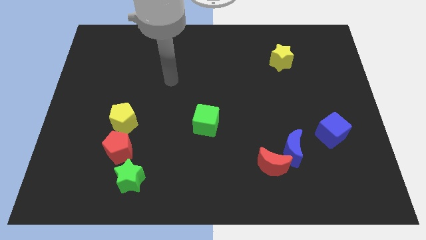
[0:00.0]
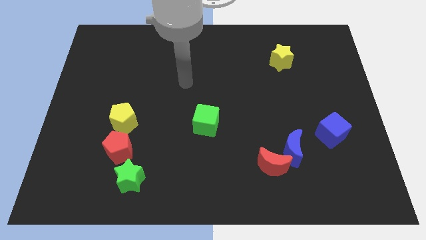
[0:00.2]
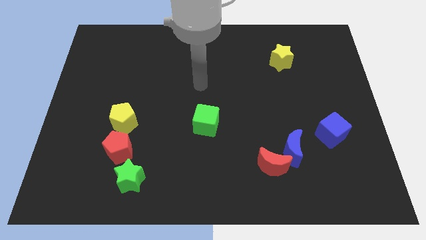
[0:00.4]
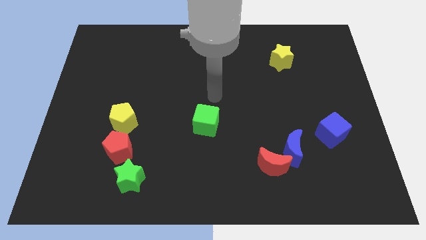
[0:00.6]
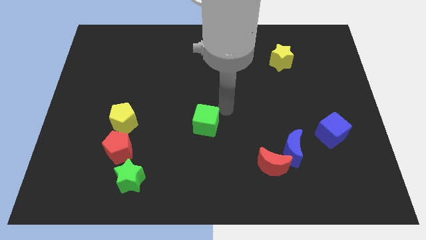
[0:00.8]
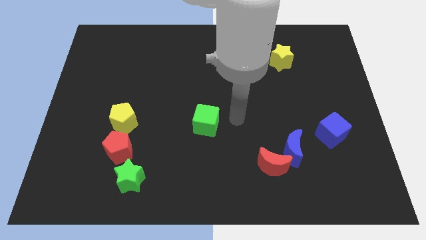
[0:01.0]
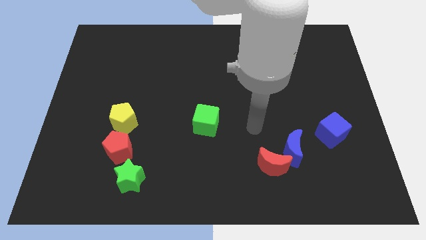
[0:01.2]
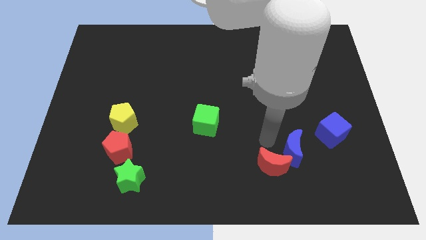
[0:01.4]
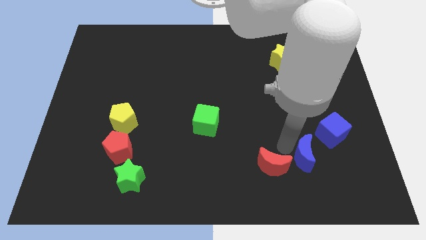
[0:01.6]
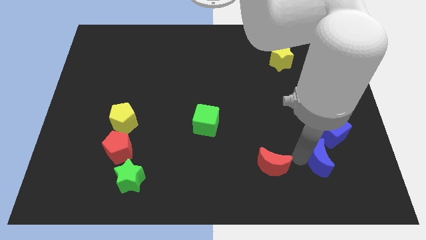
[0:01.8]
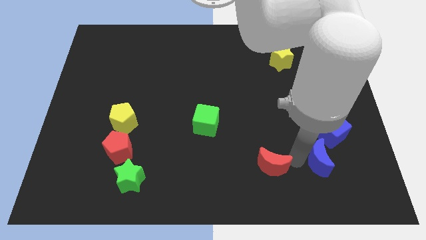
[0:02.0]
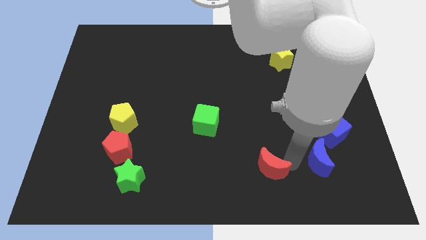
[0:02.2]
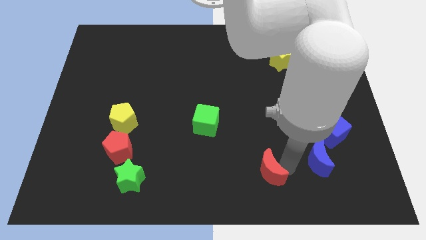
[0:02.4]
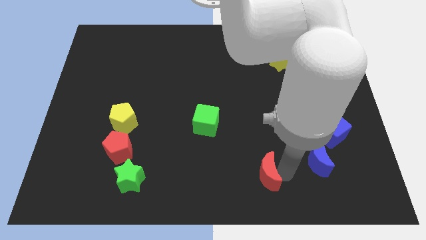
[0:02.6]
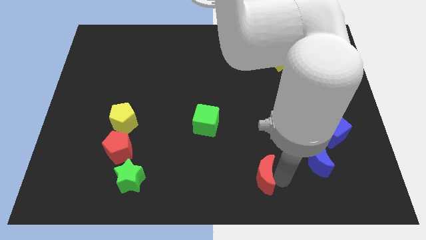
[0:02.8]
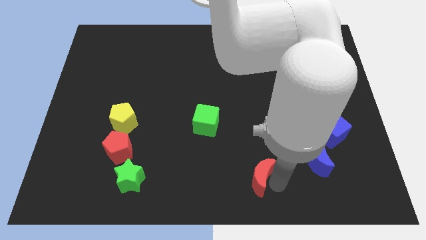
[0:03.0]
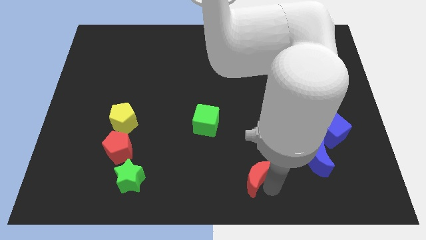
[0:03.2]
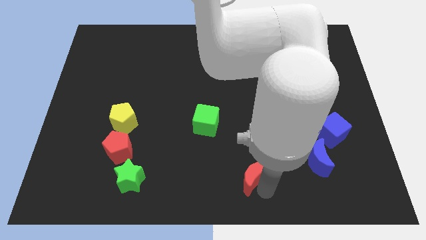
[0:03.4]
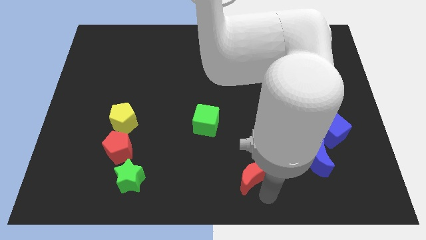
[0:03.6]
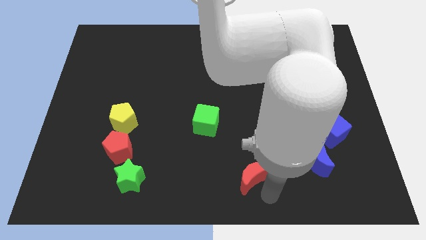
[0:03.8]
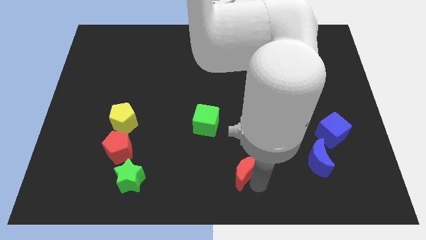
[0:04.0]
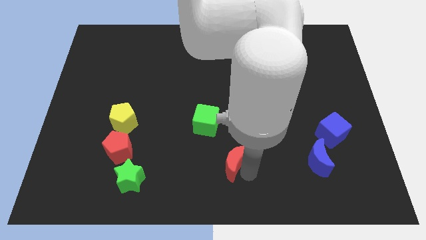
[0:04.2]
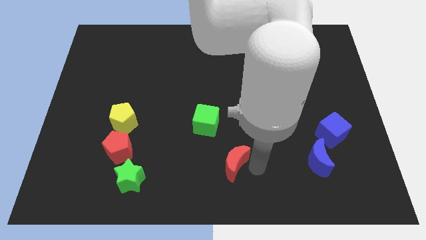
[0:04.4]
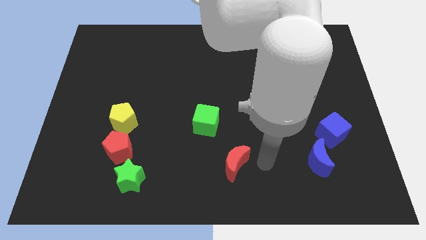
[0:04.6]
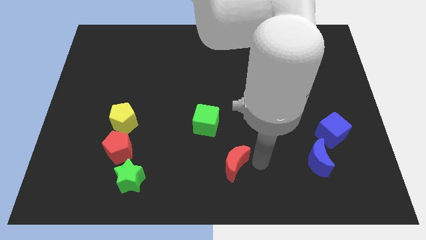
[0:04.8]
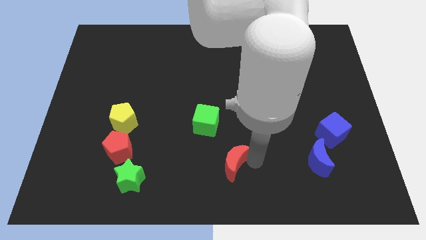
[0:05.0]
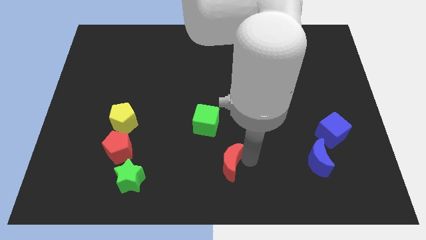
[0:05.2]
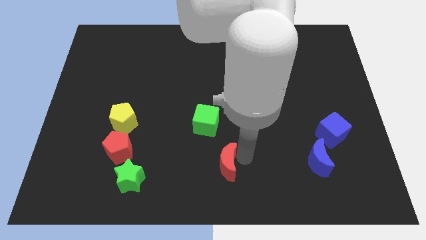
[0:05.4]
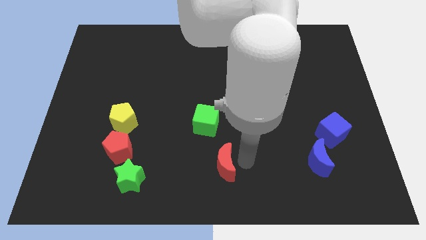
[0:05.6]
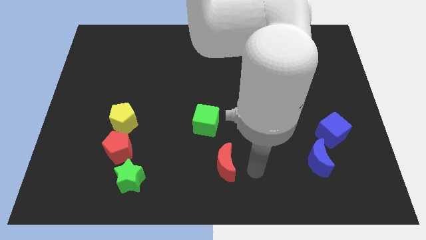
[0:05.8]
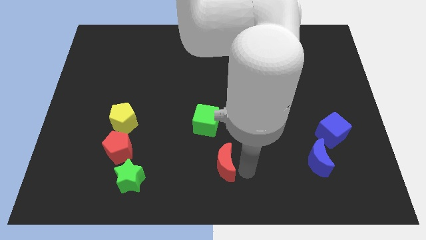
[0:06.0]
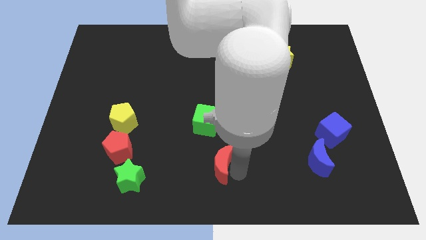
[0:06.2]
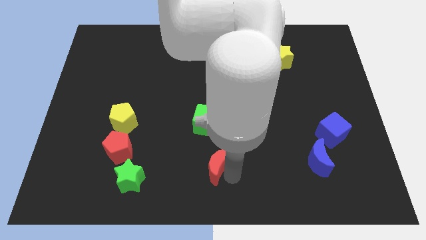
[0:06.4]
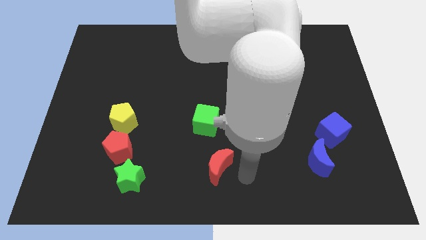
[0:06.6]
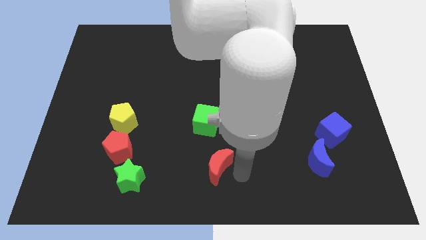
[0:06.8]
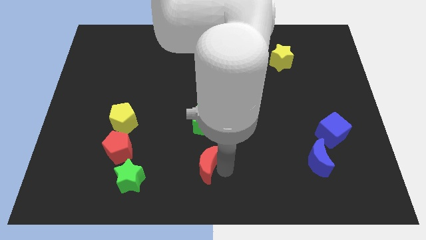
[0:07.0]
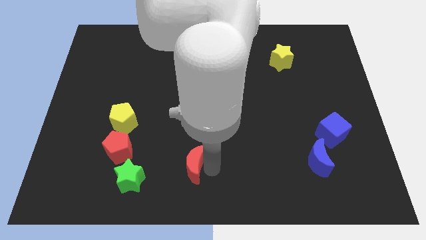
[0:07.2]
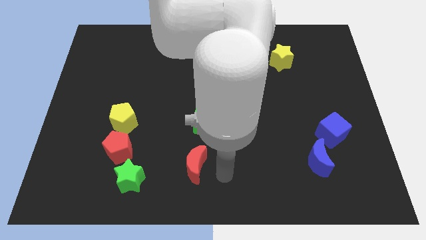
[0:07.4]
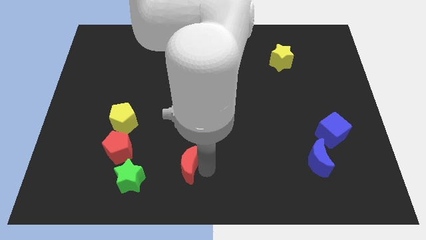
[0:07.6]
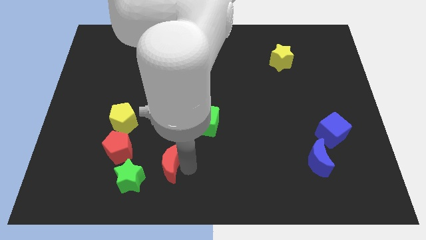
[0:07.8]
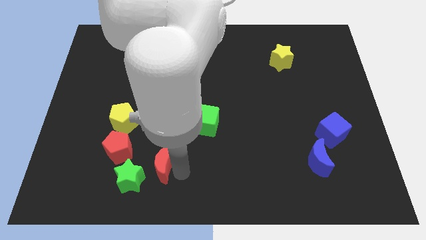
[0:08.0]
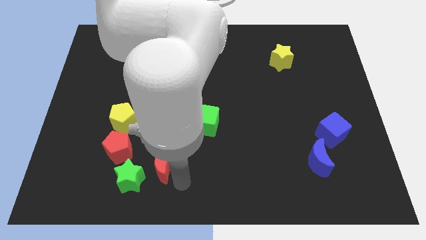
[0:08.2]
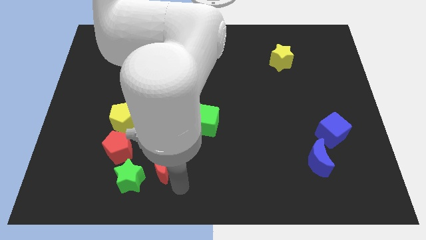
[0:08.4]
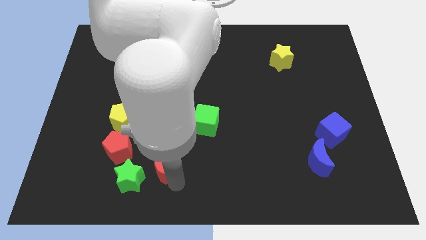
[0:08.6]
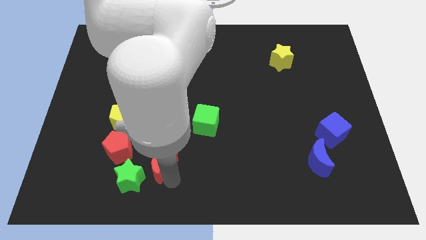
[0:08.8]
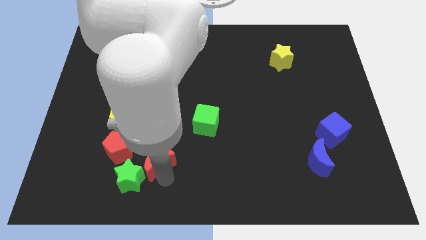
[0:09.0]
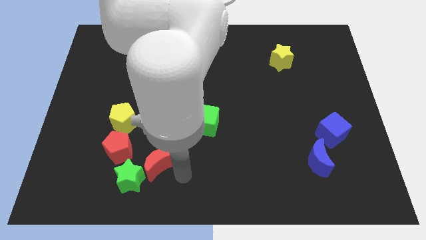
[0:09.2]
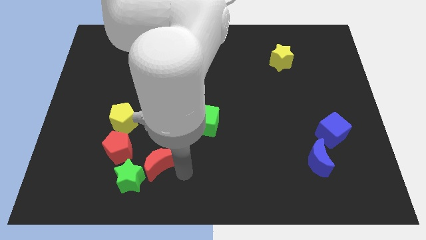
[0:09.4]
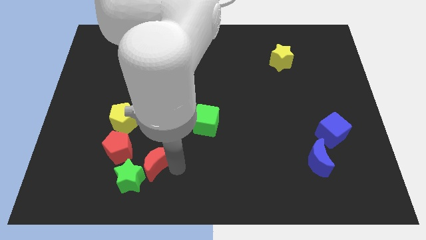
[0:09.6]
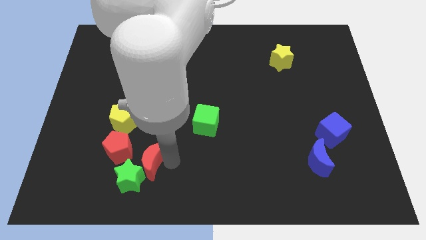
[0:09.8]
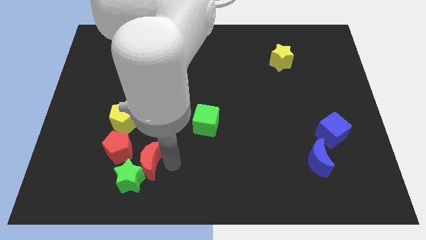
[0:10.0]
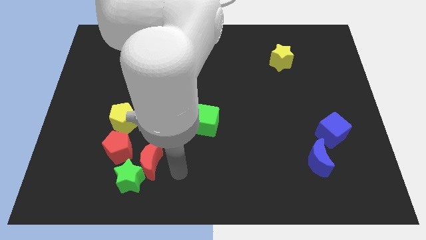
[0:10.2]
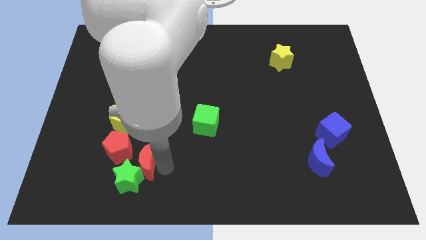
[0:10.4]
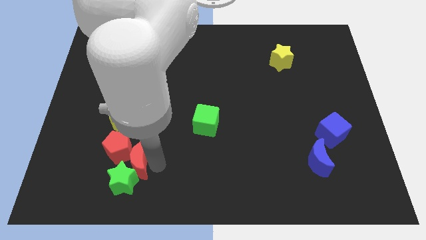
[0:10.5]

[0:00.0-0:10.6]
push the red moon next to the red pentagon

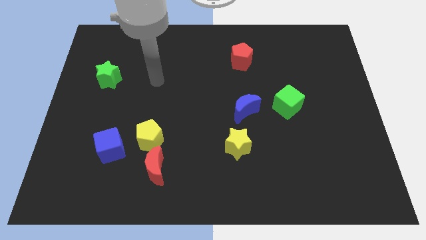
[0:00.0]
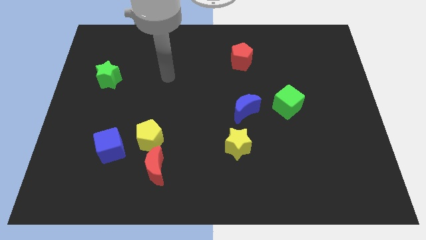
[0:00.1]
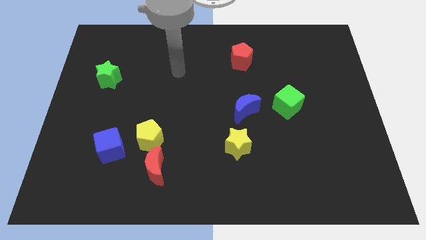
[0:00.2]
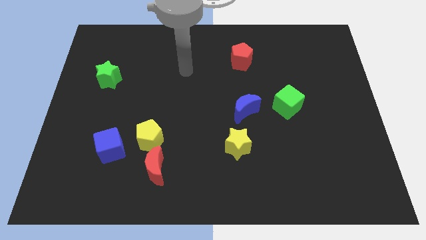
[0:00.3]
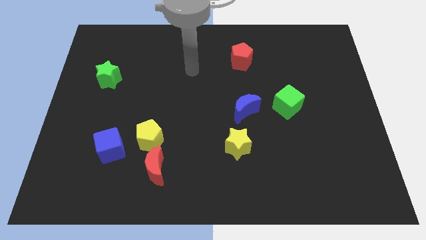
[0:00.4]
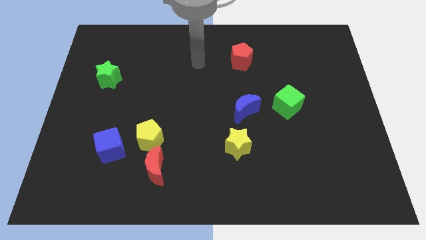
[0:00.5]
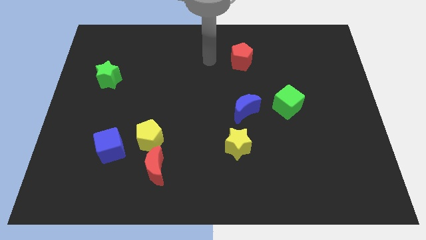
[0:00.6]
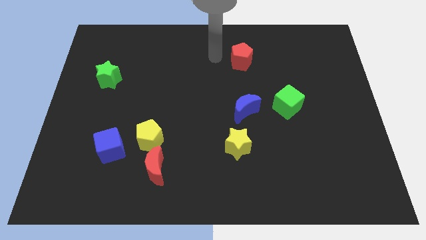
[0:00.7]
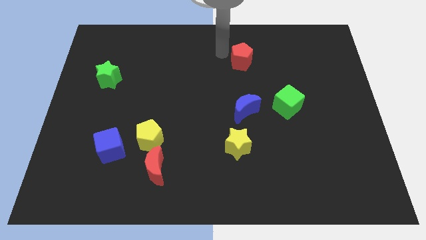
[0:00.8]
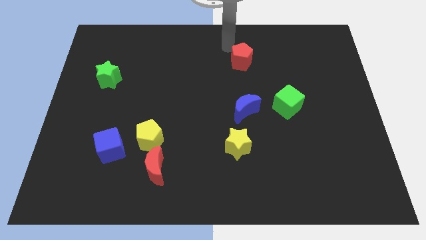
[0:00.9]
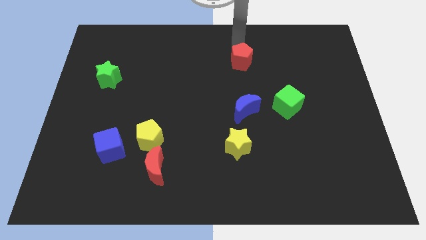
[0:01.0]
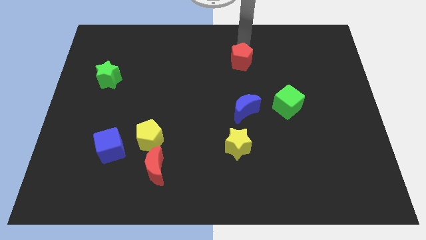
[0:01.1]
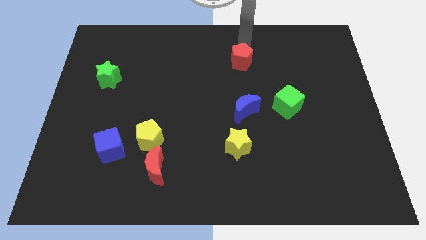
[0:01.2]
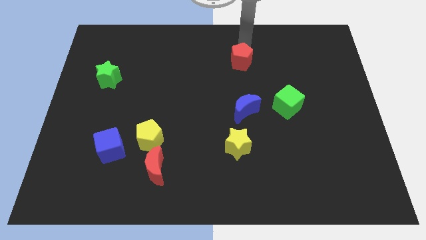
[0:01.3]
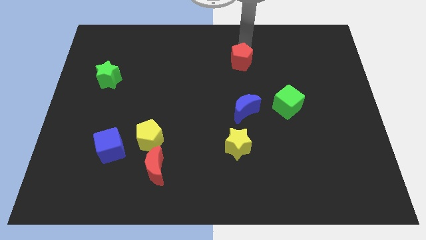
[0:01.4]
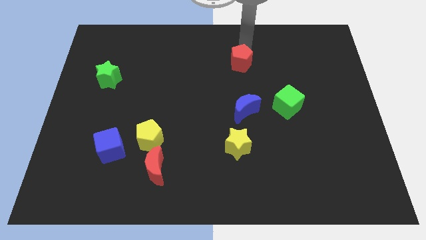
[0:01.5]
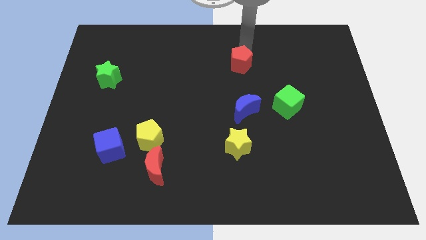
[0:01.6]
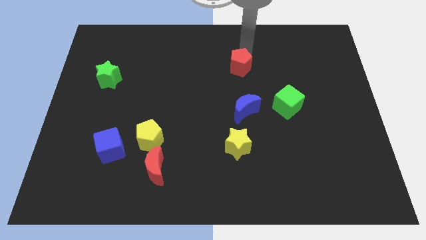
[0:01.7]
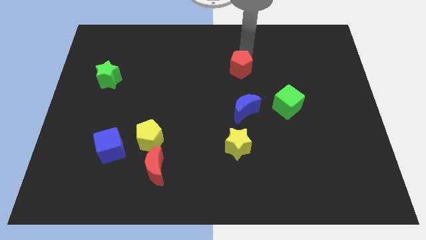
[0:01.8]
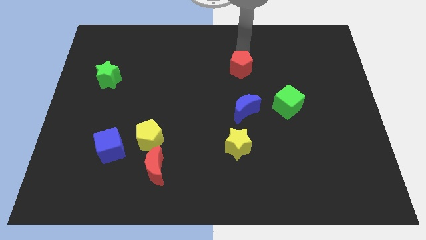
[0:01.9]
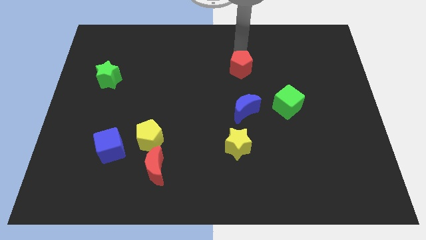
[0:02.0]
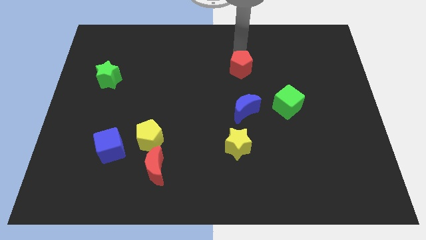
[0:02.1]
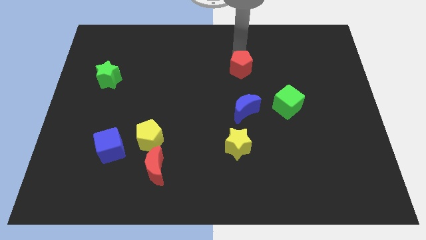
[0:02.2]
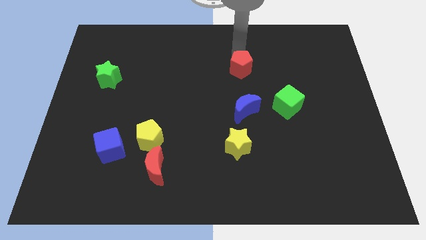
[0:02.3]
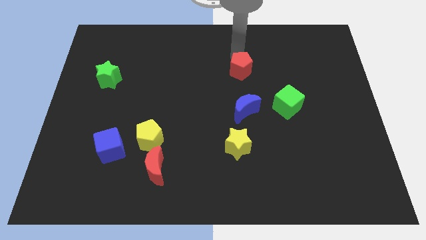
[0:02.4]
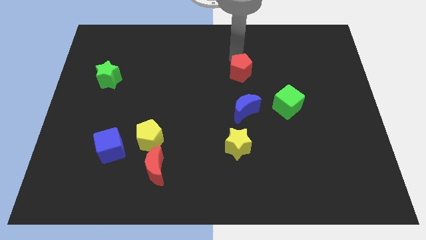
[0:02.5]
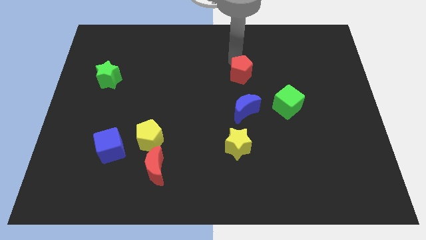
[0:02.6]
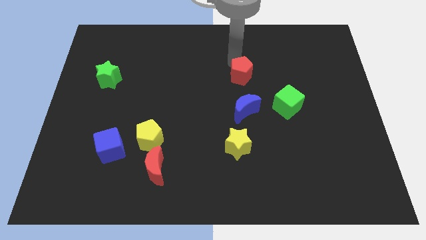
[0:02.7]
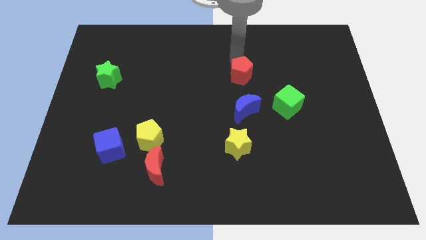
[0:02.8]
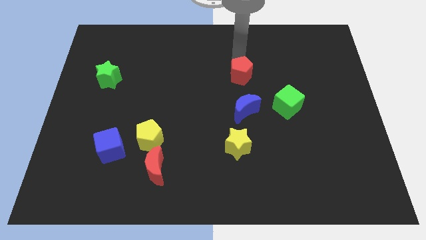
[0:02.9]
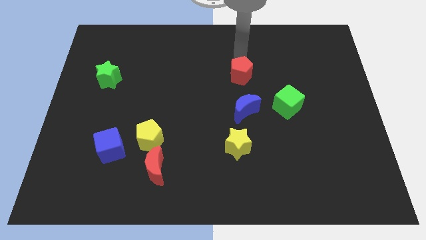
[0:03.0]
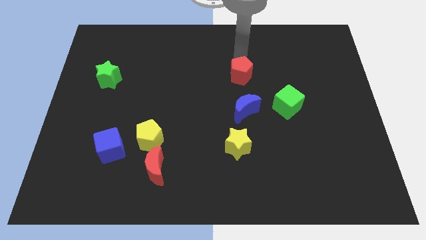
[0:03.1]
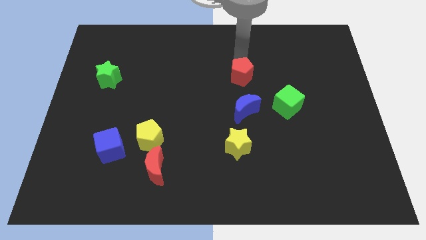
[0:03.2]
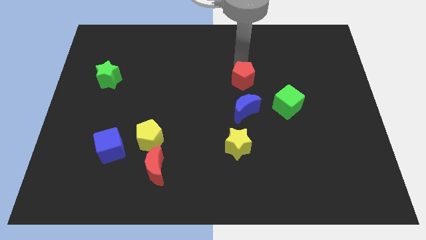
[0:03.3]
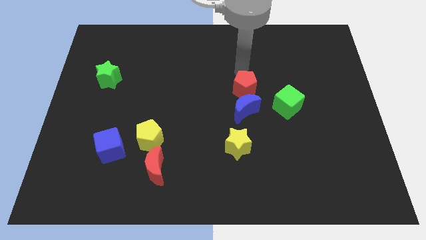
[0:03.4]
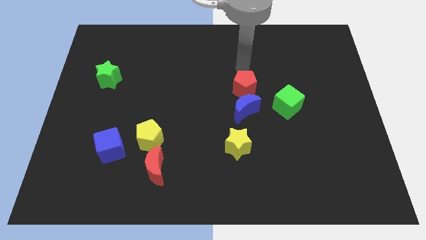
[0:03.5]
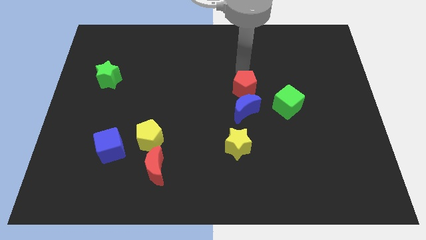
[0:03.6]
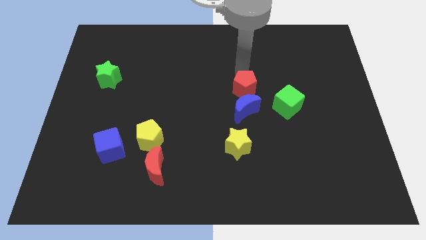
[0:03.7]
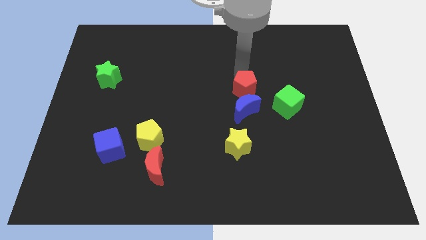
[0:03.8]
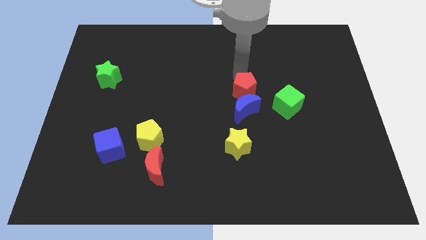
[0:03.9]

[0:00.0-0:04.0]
push the red pentagon next to the blue moon
